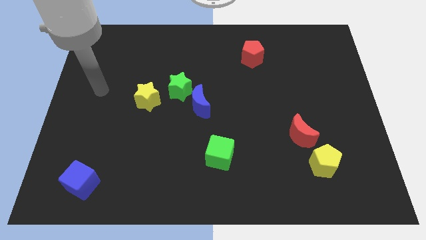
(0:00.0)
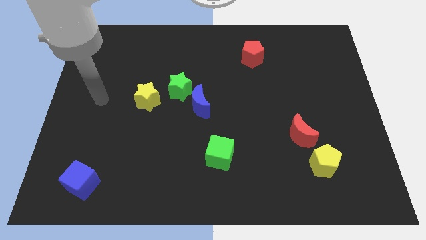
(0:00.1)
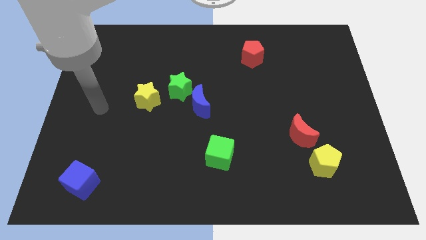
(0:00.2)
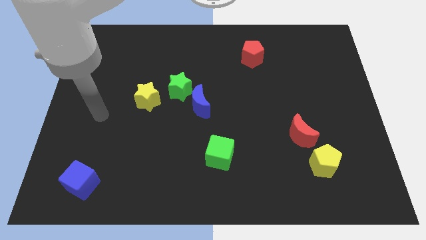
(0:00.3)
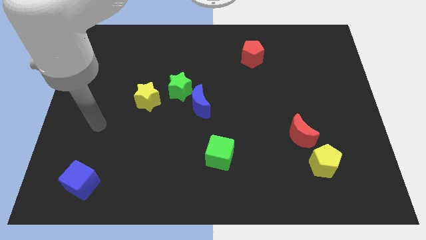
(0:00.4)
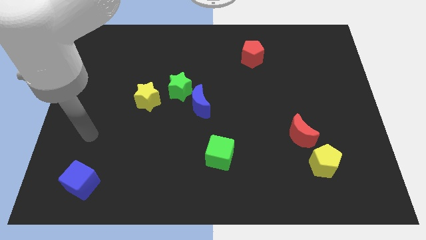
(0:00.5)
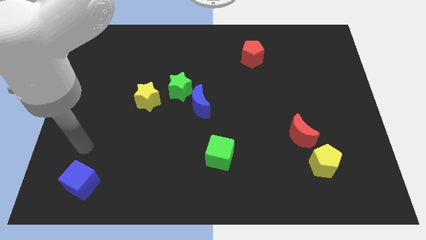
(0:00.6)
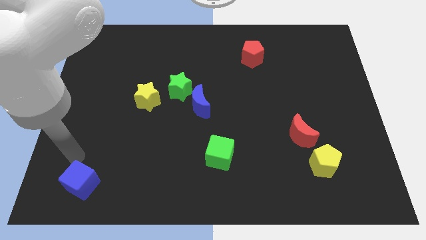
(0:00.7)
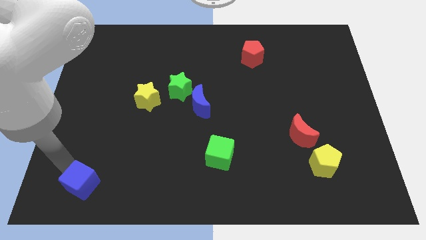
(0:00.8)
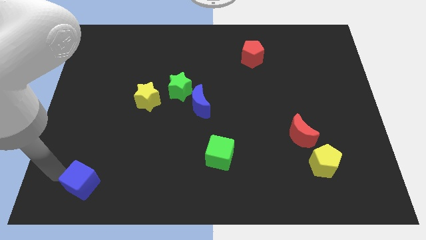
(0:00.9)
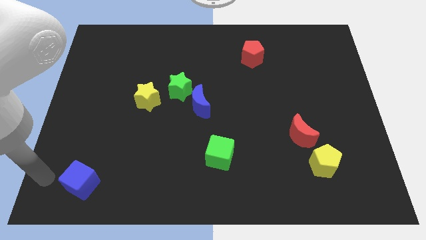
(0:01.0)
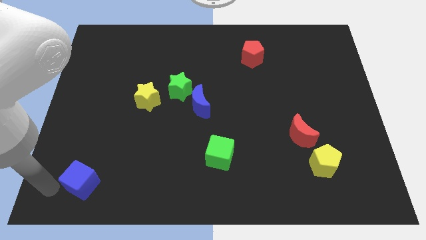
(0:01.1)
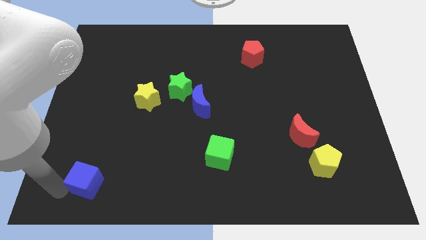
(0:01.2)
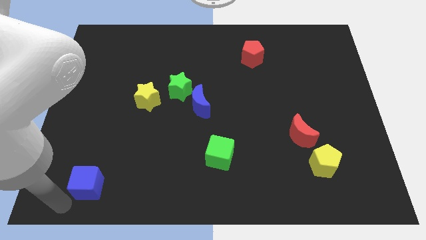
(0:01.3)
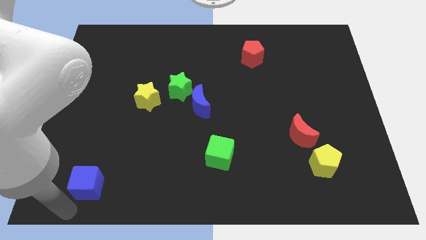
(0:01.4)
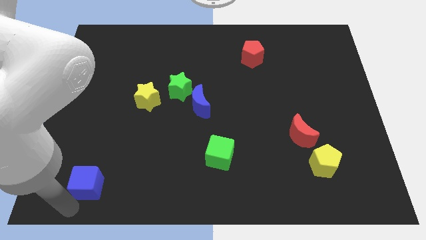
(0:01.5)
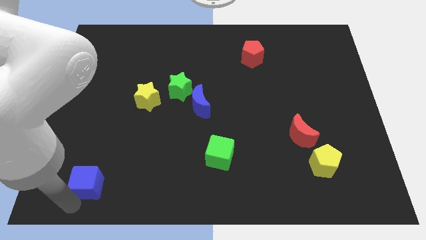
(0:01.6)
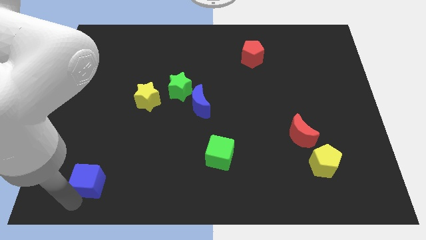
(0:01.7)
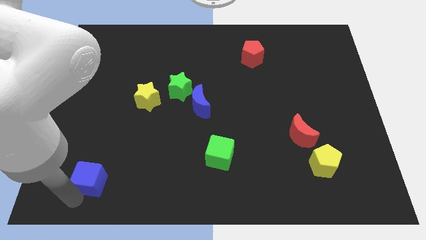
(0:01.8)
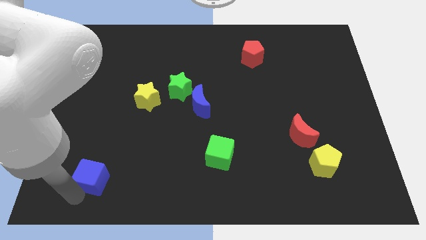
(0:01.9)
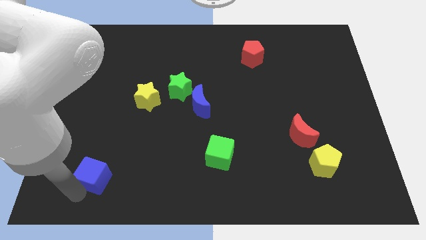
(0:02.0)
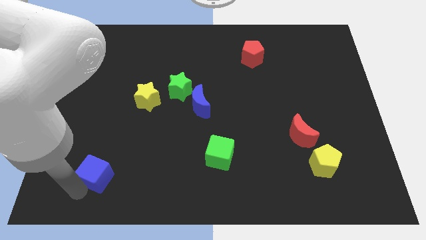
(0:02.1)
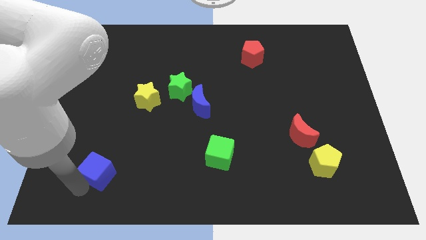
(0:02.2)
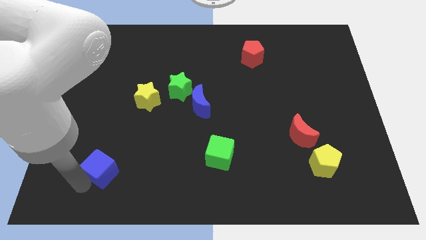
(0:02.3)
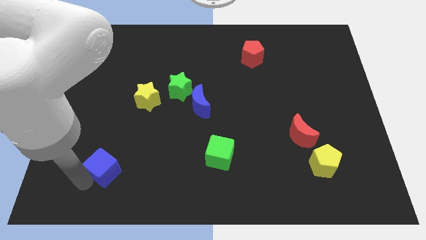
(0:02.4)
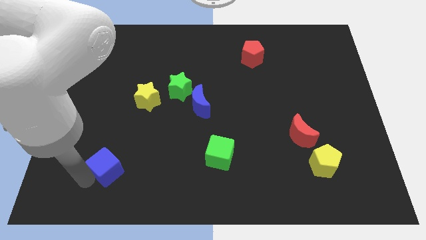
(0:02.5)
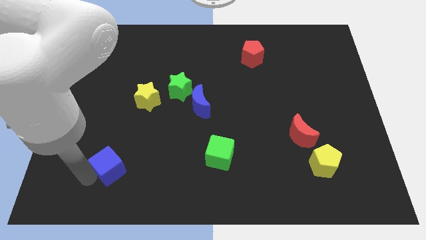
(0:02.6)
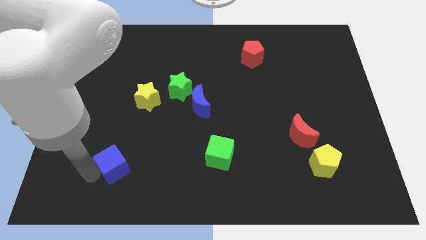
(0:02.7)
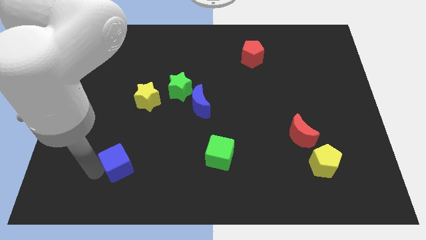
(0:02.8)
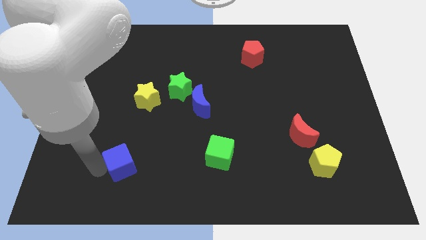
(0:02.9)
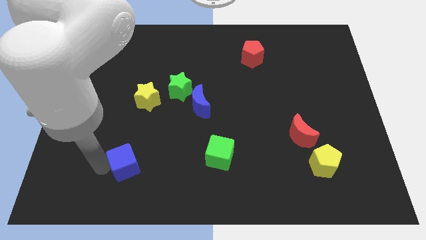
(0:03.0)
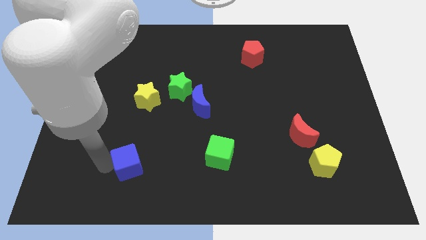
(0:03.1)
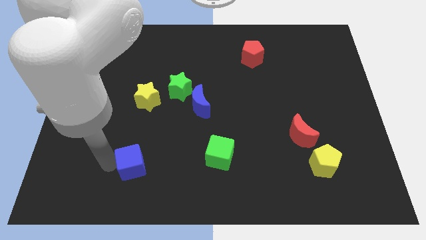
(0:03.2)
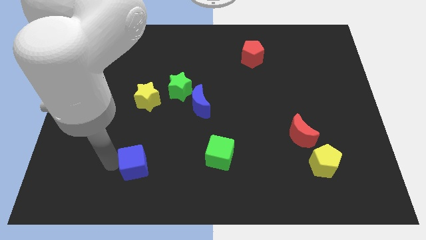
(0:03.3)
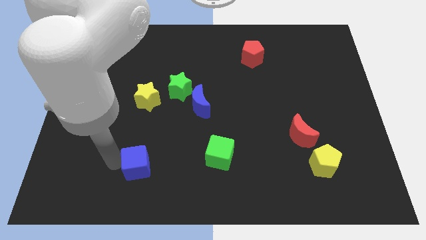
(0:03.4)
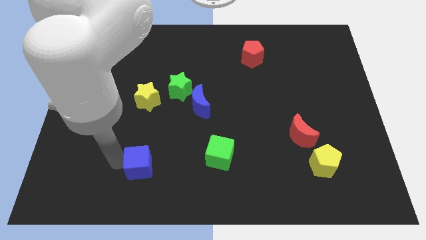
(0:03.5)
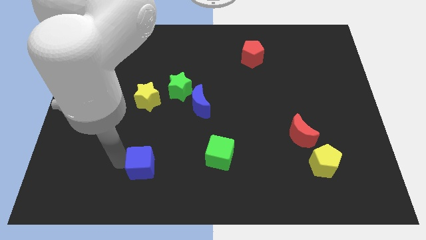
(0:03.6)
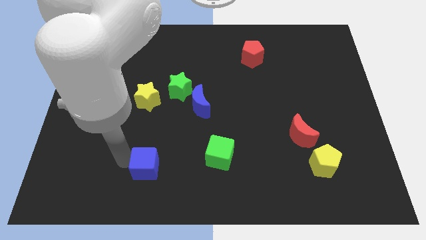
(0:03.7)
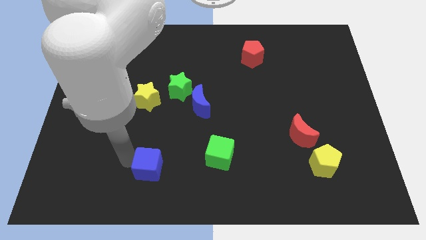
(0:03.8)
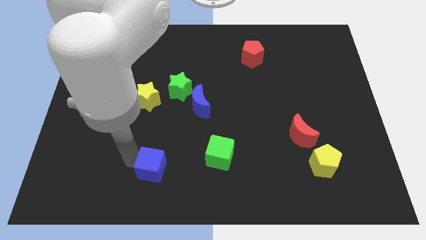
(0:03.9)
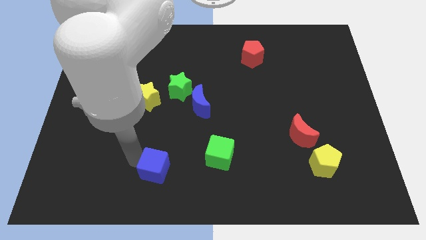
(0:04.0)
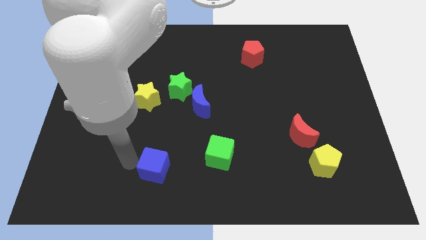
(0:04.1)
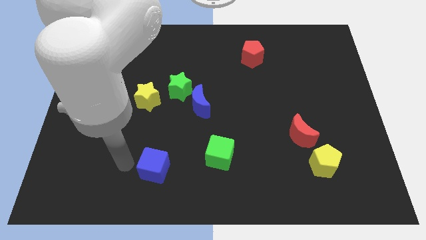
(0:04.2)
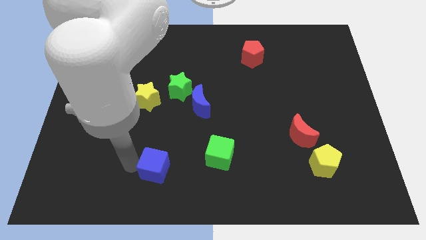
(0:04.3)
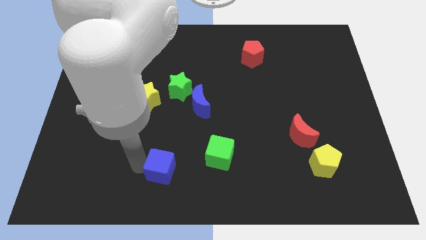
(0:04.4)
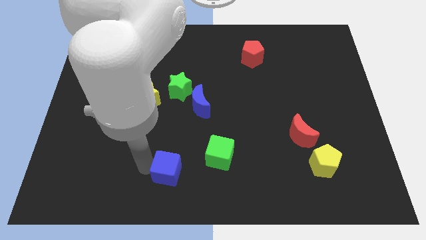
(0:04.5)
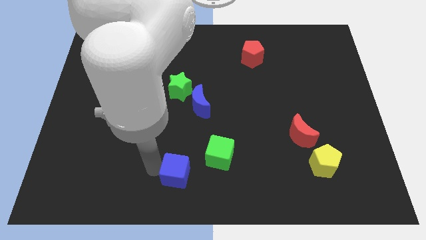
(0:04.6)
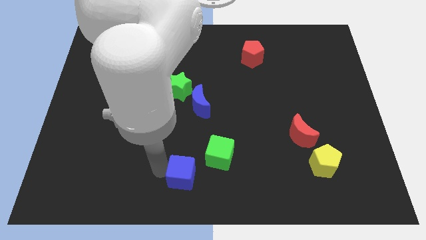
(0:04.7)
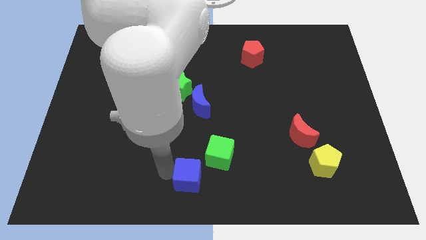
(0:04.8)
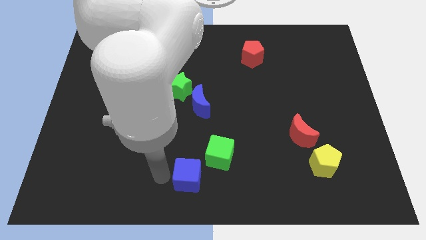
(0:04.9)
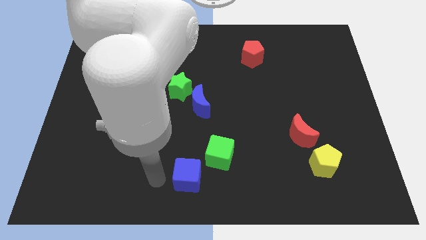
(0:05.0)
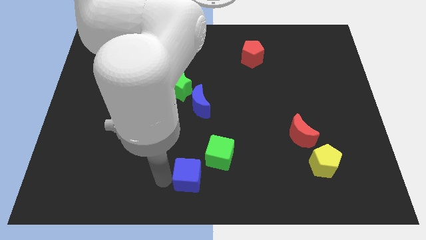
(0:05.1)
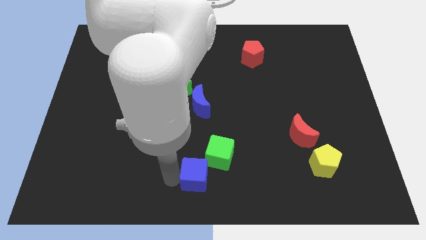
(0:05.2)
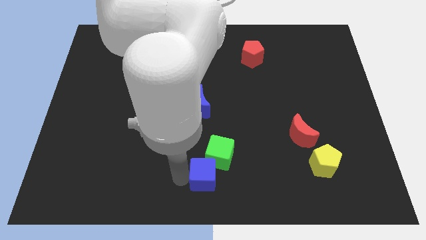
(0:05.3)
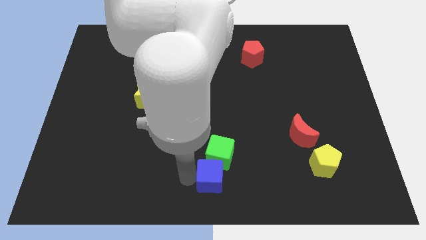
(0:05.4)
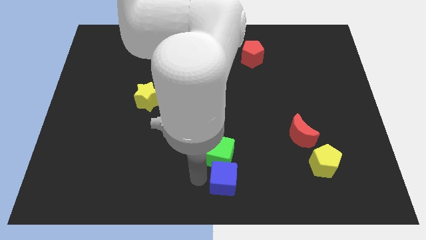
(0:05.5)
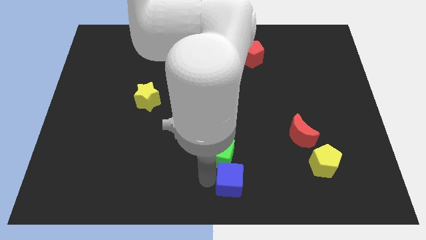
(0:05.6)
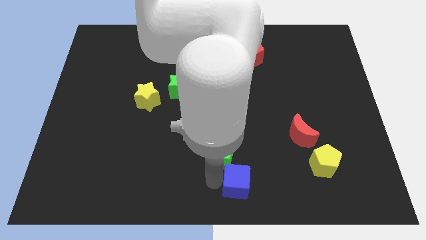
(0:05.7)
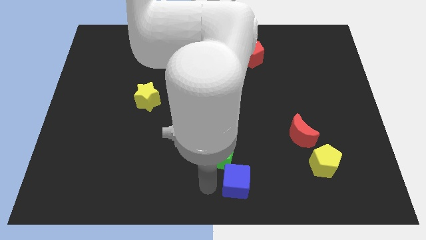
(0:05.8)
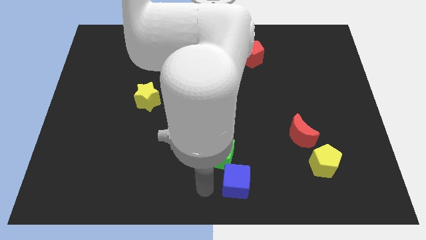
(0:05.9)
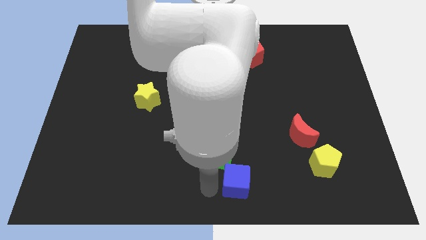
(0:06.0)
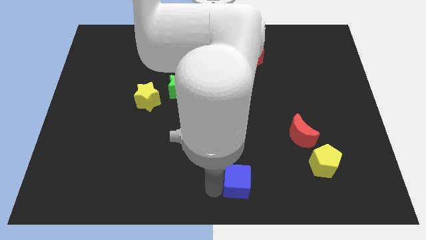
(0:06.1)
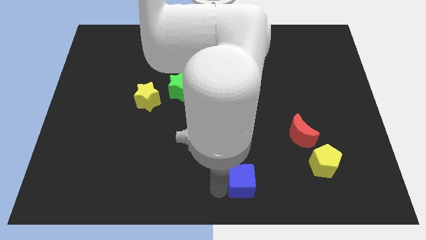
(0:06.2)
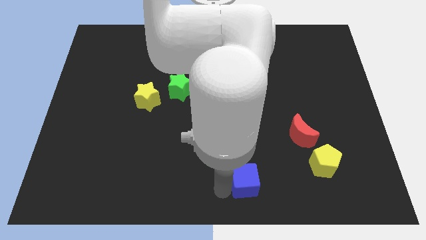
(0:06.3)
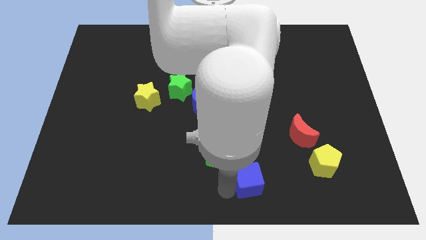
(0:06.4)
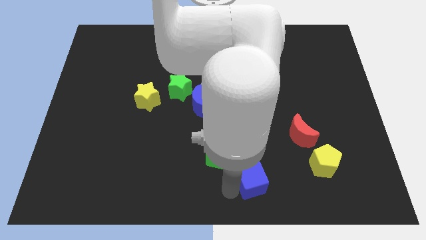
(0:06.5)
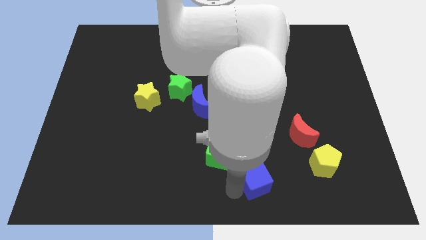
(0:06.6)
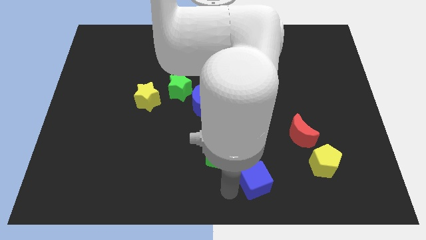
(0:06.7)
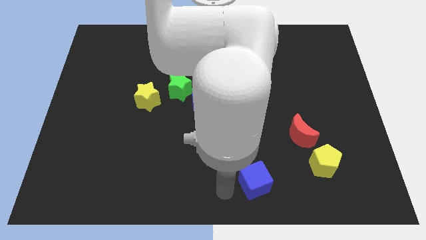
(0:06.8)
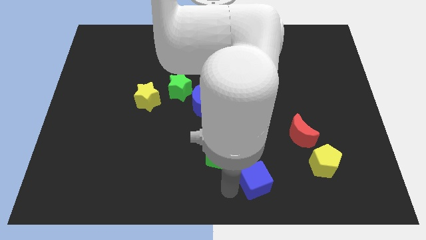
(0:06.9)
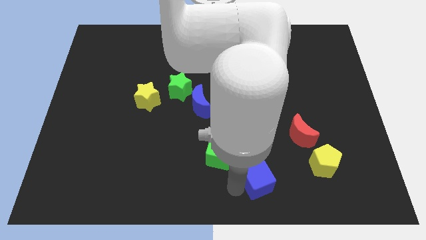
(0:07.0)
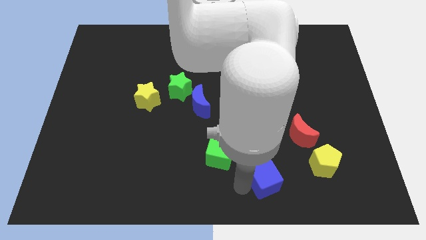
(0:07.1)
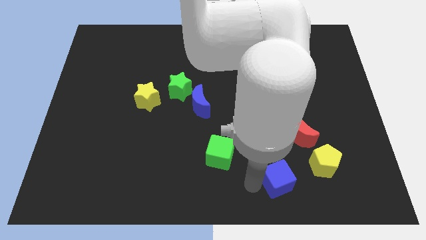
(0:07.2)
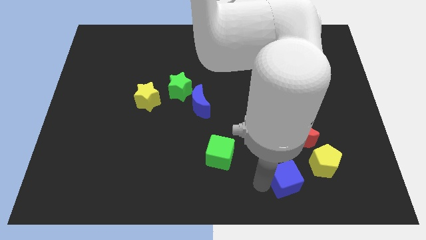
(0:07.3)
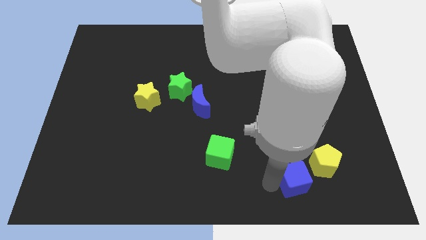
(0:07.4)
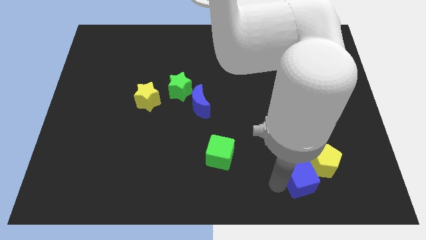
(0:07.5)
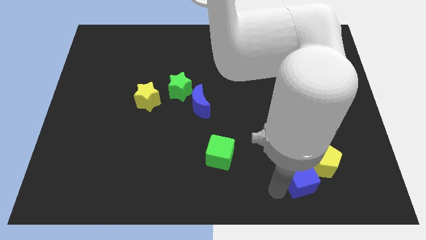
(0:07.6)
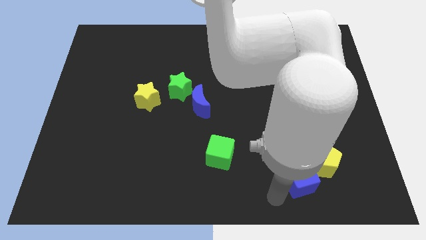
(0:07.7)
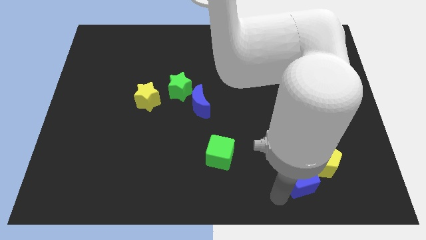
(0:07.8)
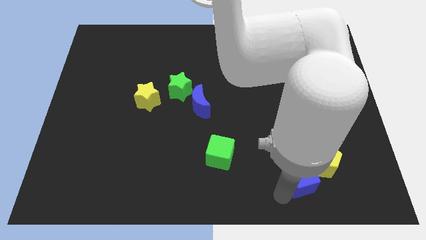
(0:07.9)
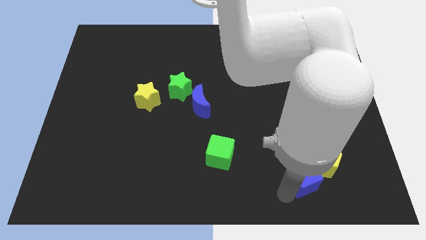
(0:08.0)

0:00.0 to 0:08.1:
move the blue cube to the yellow pentagon
